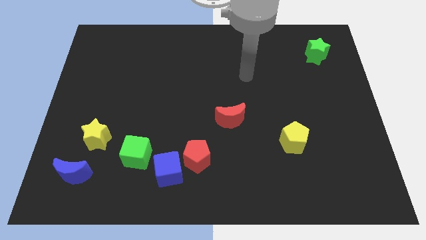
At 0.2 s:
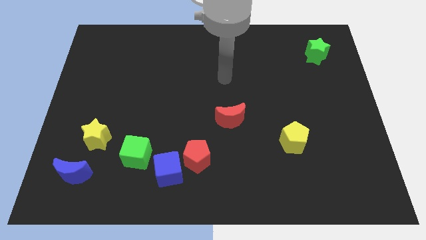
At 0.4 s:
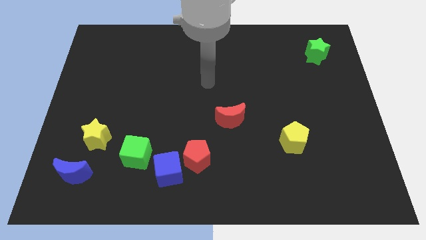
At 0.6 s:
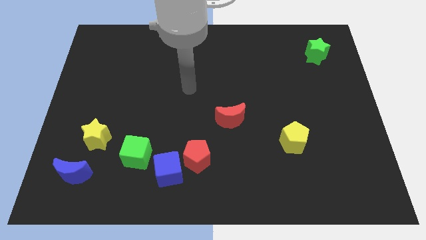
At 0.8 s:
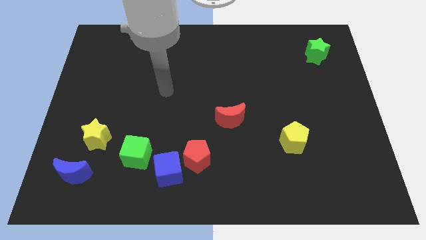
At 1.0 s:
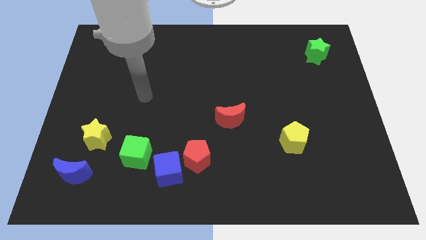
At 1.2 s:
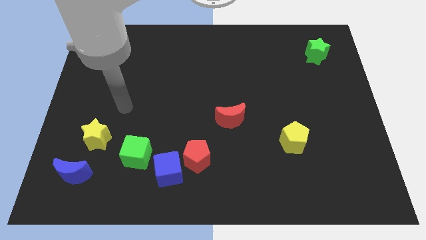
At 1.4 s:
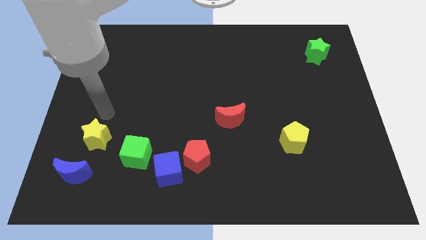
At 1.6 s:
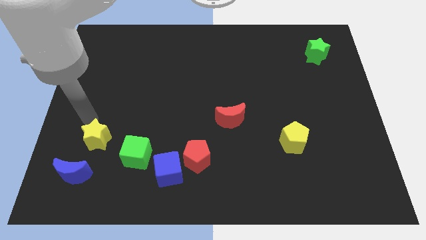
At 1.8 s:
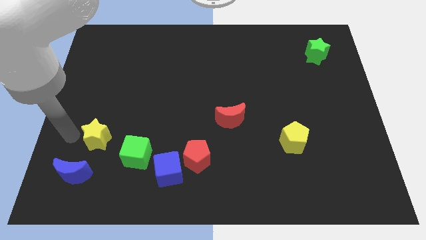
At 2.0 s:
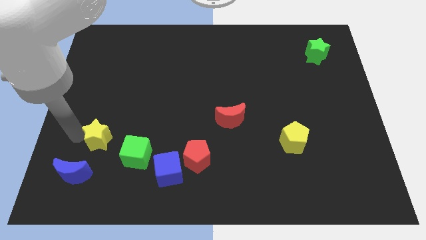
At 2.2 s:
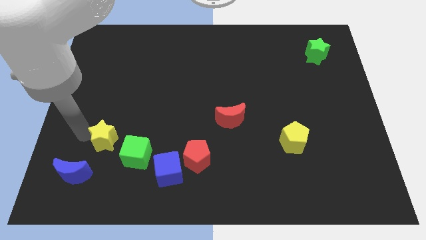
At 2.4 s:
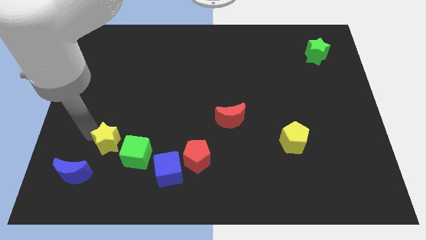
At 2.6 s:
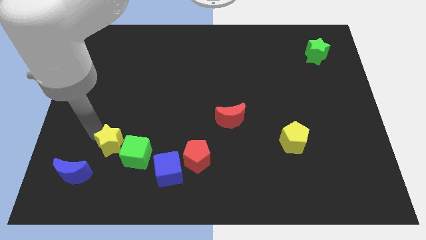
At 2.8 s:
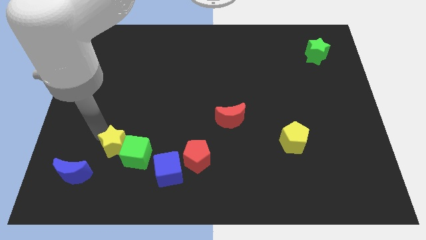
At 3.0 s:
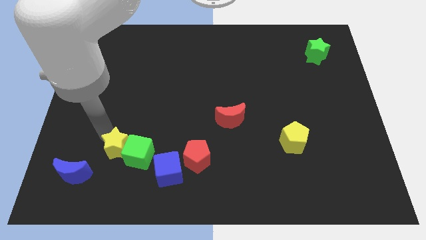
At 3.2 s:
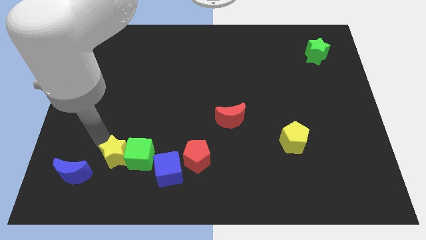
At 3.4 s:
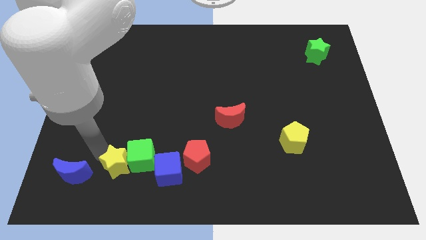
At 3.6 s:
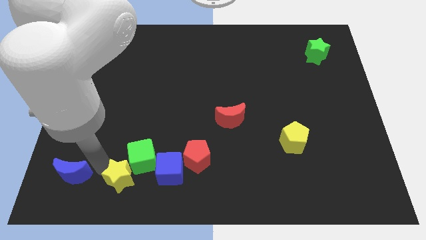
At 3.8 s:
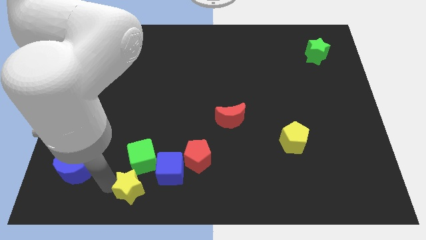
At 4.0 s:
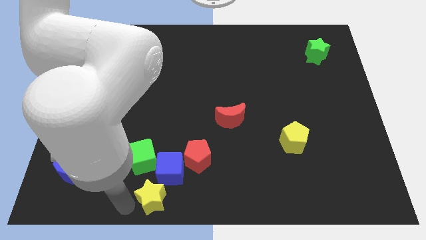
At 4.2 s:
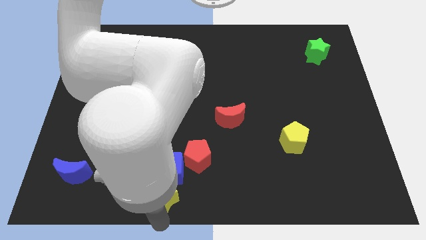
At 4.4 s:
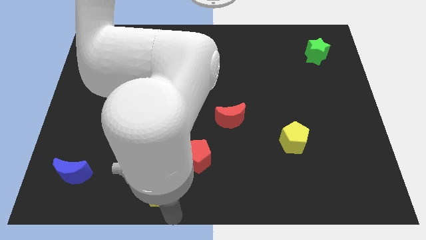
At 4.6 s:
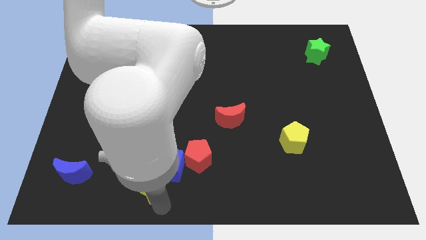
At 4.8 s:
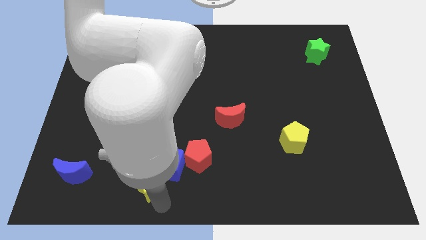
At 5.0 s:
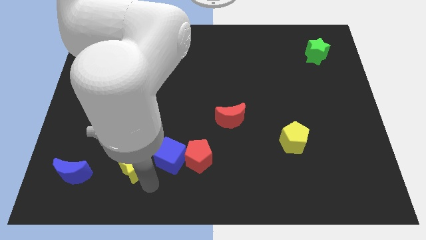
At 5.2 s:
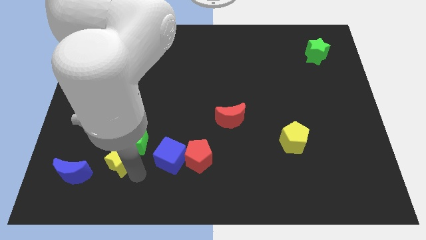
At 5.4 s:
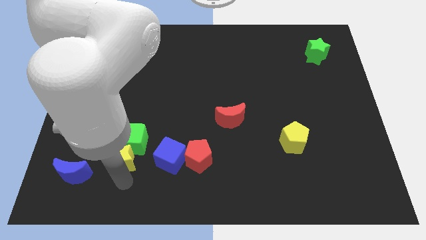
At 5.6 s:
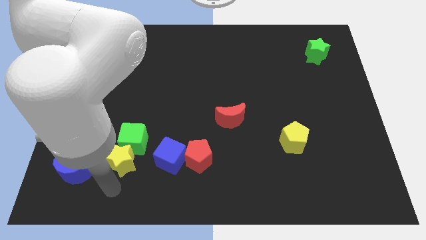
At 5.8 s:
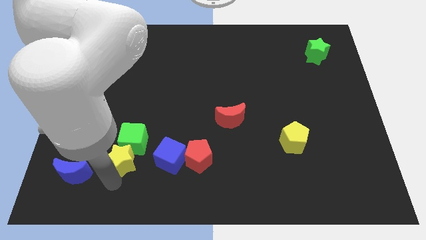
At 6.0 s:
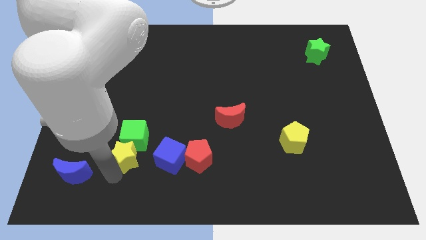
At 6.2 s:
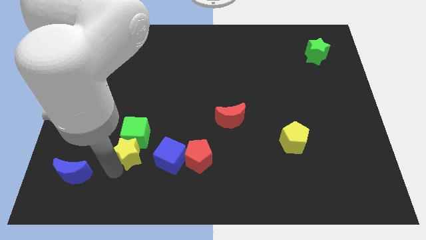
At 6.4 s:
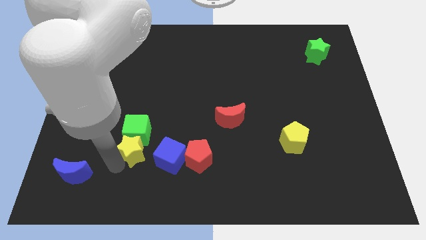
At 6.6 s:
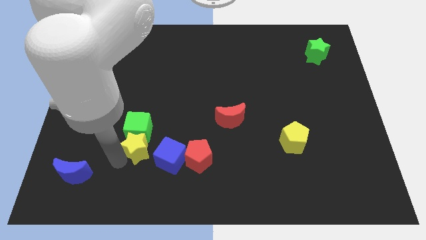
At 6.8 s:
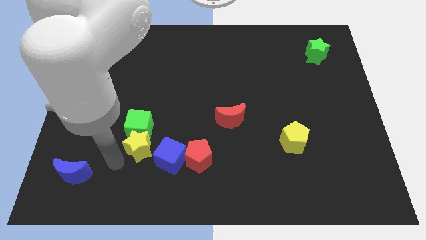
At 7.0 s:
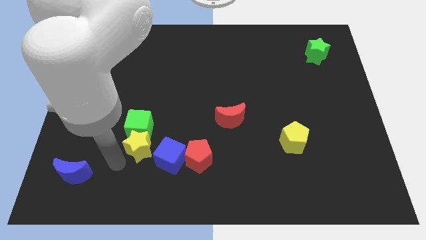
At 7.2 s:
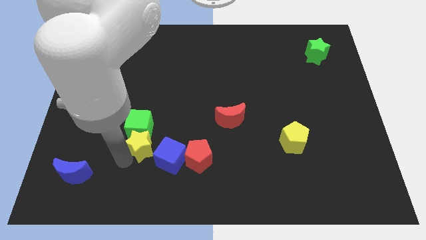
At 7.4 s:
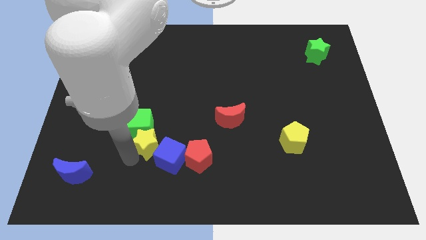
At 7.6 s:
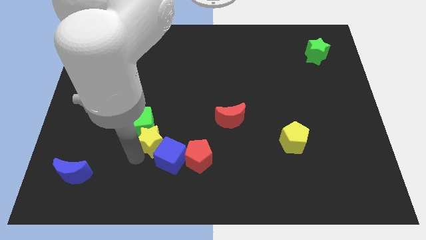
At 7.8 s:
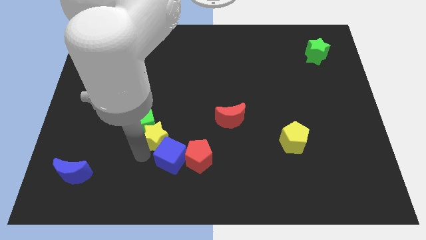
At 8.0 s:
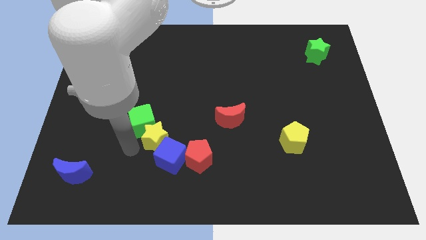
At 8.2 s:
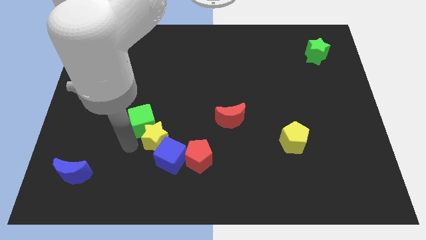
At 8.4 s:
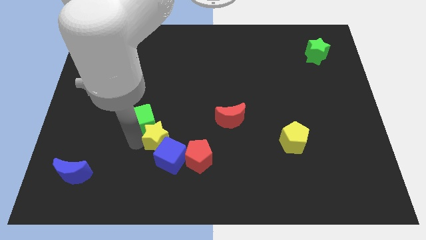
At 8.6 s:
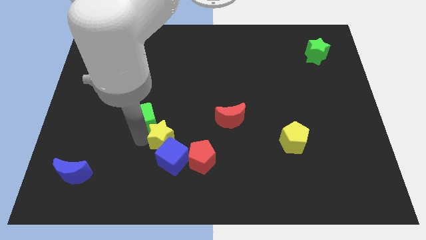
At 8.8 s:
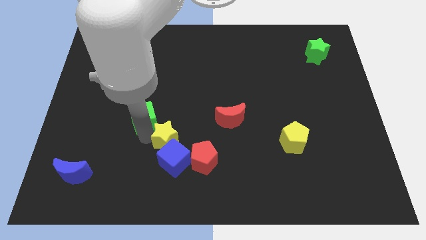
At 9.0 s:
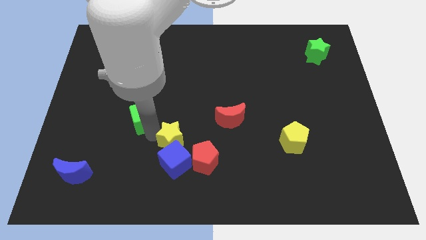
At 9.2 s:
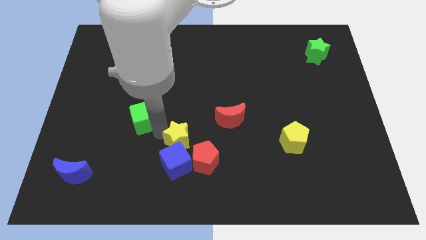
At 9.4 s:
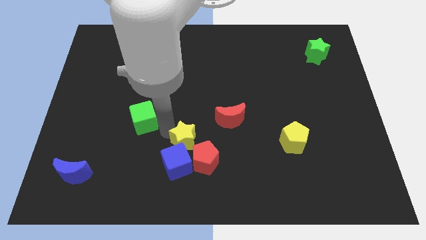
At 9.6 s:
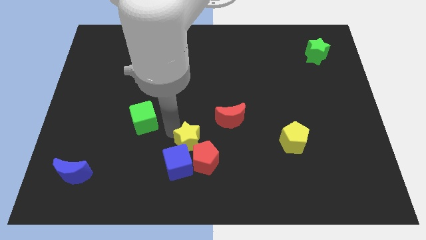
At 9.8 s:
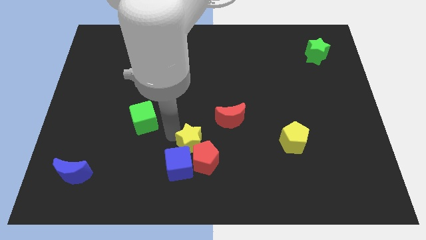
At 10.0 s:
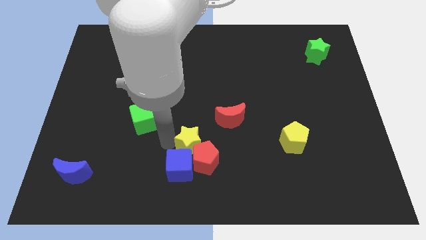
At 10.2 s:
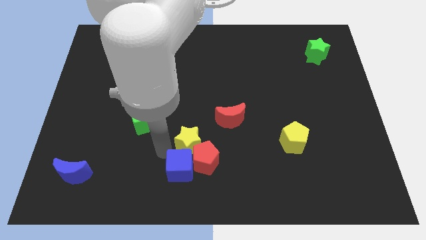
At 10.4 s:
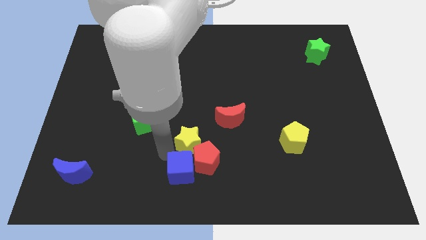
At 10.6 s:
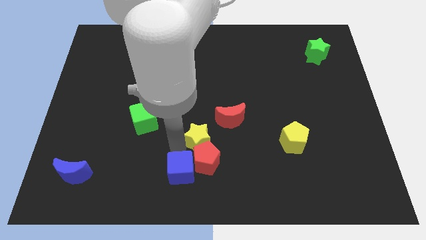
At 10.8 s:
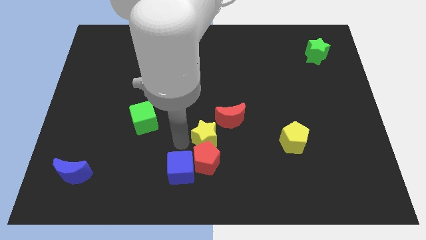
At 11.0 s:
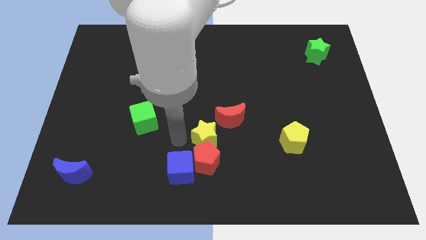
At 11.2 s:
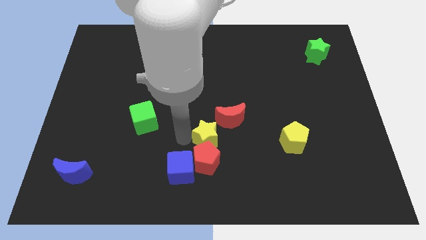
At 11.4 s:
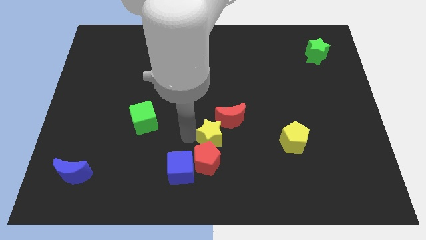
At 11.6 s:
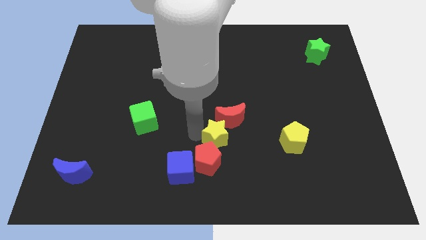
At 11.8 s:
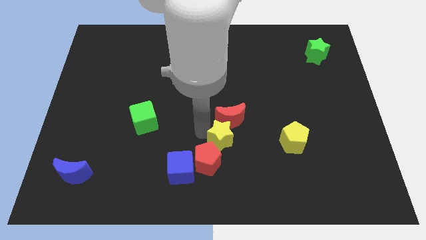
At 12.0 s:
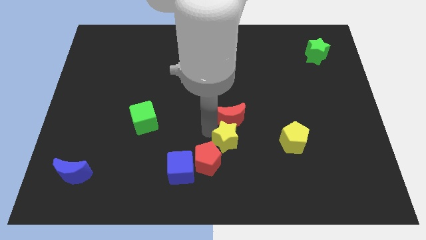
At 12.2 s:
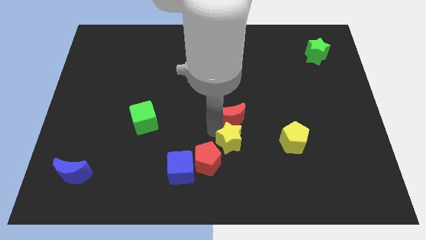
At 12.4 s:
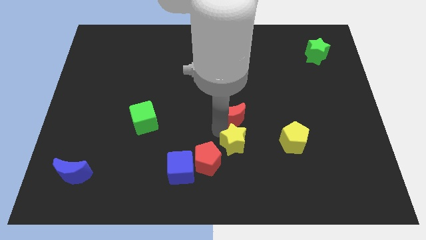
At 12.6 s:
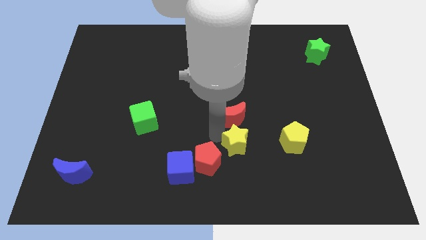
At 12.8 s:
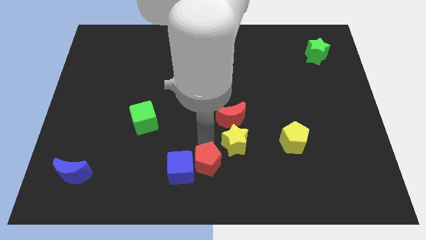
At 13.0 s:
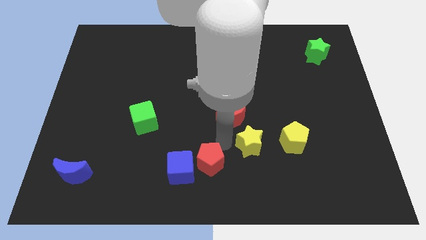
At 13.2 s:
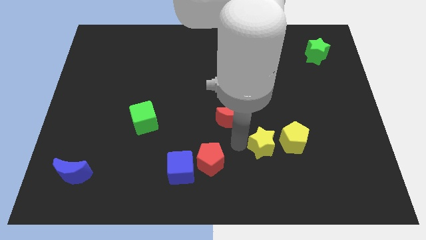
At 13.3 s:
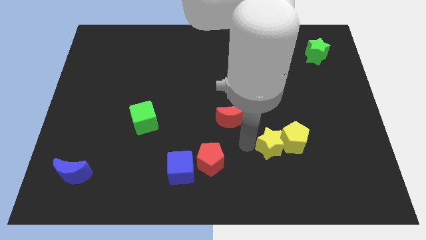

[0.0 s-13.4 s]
slide the yellow star to the yellow pentagon

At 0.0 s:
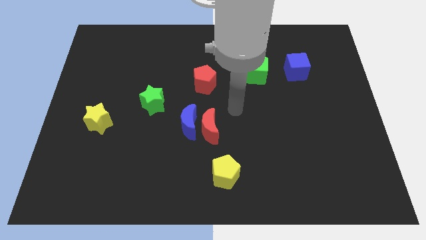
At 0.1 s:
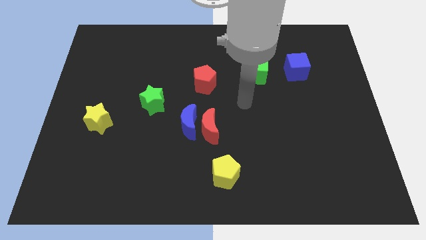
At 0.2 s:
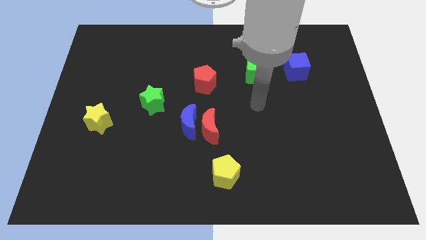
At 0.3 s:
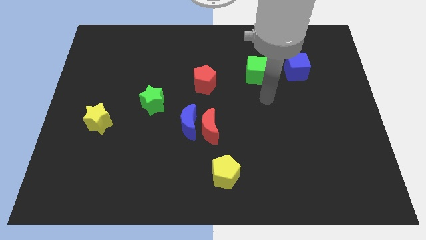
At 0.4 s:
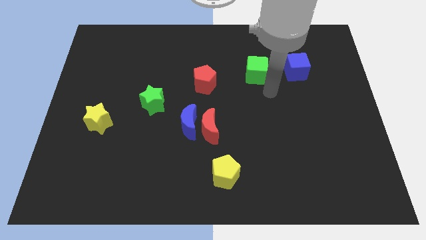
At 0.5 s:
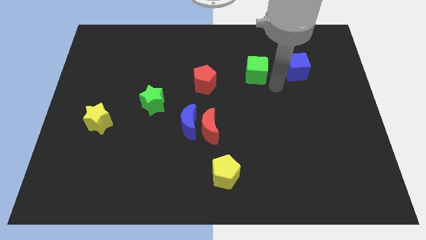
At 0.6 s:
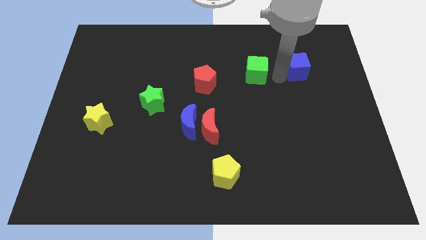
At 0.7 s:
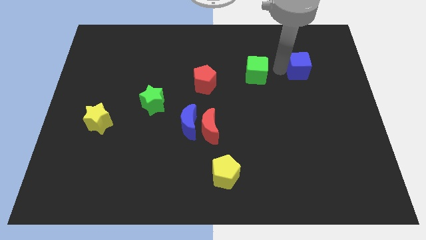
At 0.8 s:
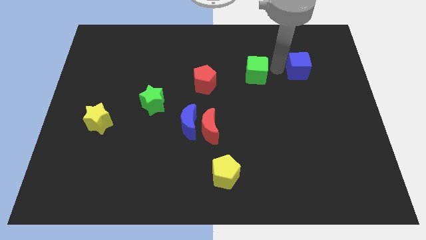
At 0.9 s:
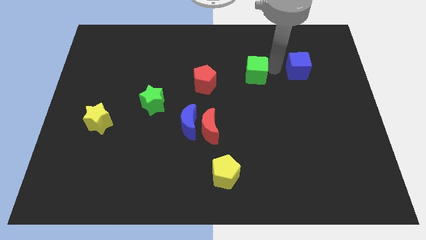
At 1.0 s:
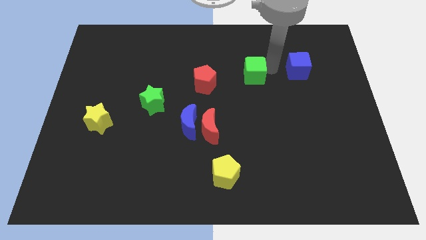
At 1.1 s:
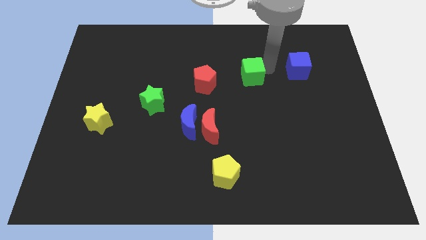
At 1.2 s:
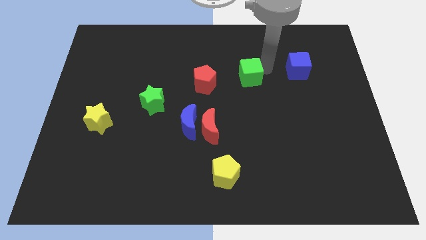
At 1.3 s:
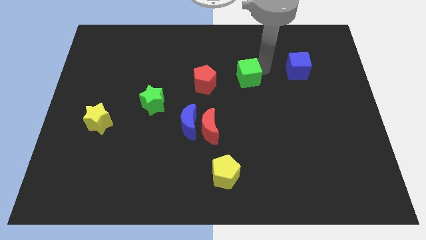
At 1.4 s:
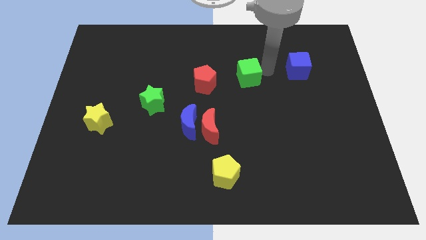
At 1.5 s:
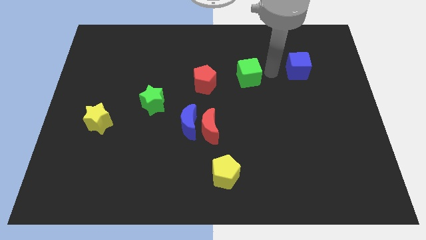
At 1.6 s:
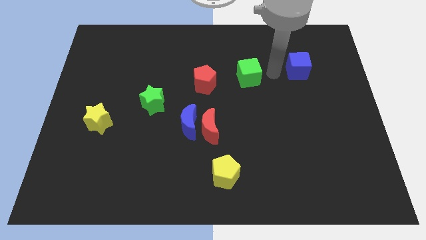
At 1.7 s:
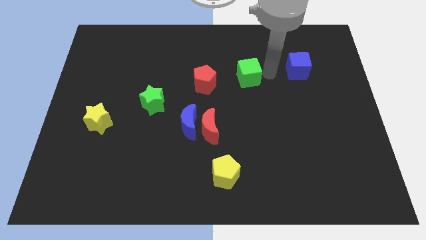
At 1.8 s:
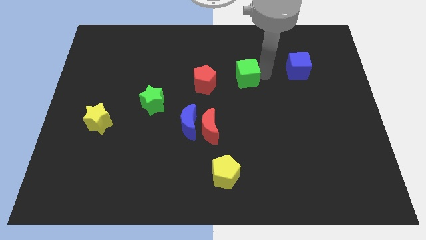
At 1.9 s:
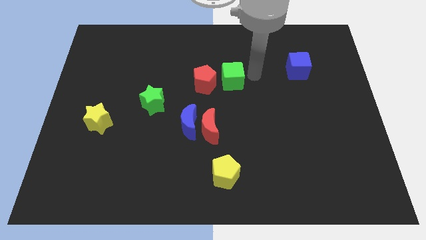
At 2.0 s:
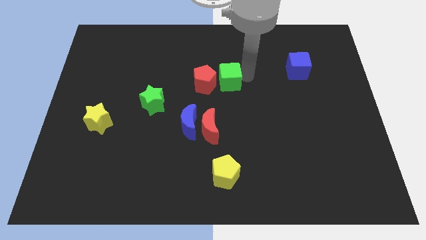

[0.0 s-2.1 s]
put the green cube next to the red pentagon
